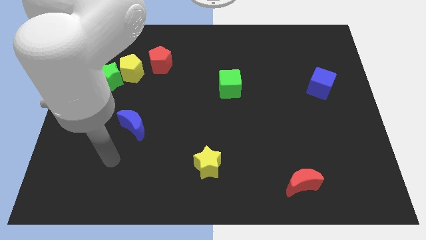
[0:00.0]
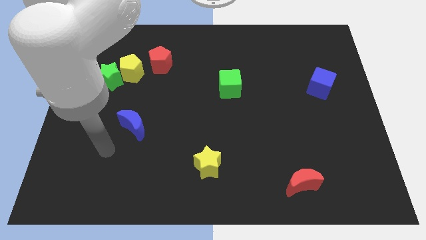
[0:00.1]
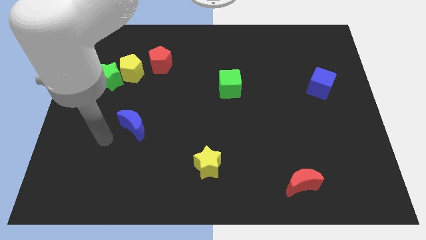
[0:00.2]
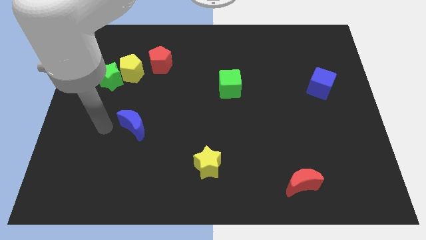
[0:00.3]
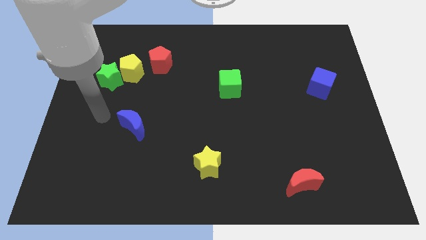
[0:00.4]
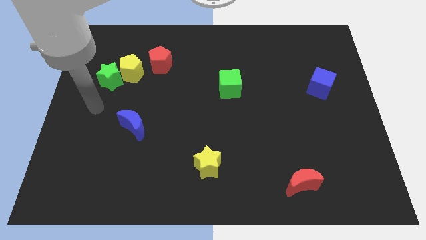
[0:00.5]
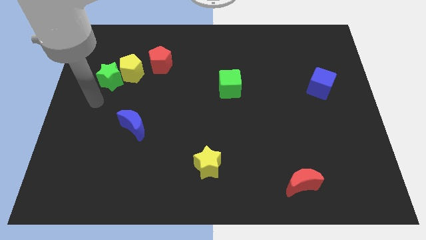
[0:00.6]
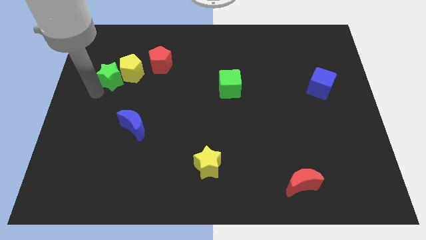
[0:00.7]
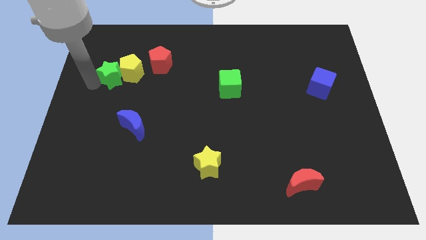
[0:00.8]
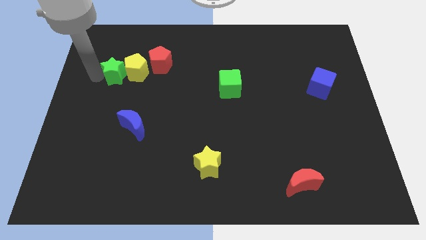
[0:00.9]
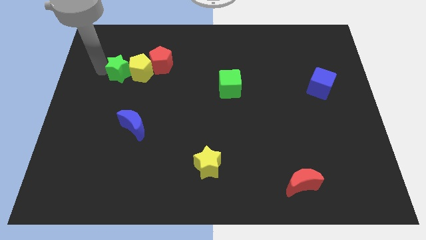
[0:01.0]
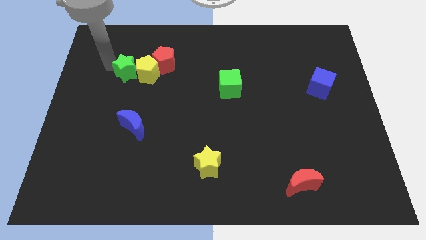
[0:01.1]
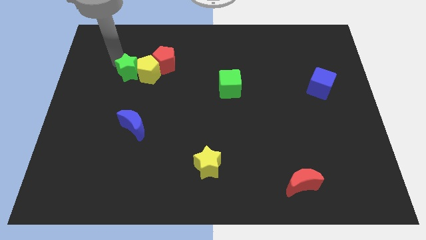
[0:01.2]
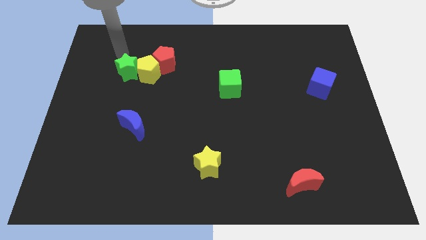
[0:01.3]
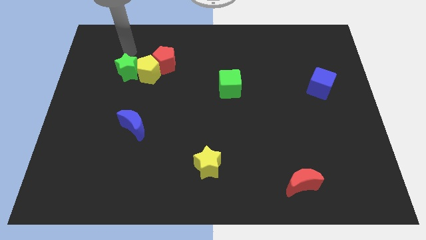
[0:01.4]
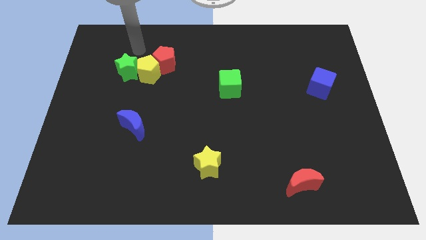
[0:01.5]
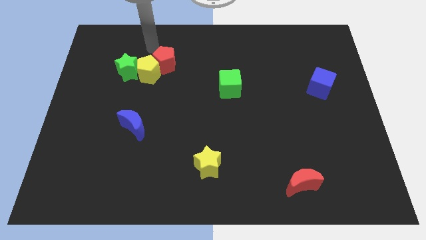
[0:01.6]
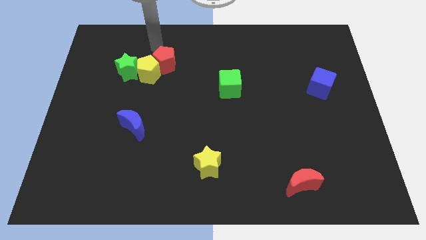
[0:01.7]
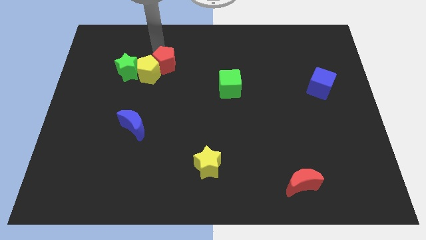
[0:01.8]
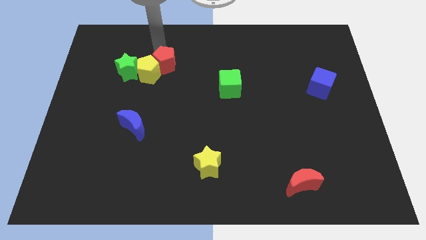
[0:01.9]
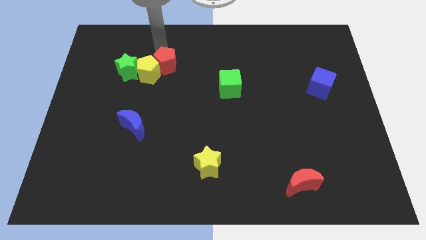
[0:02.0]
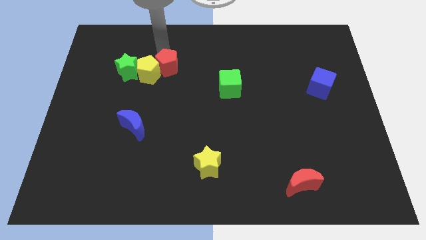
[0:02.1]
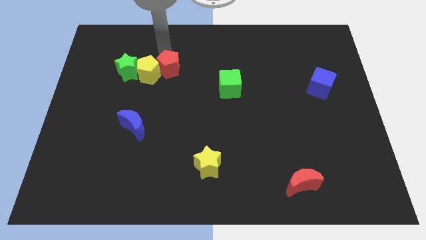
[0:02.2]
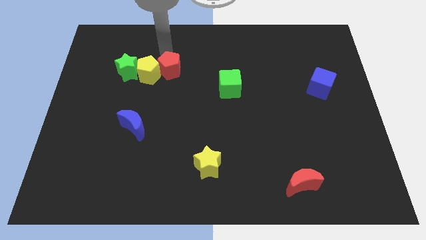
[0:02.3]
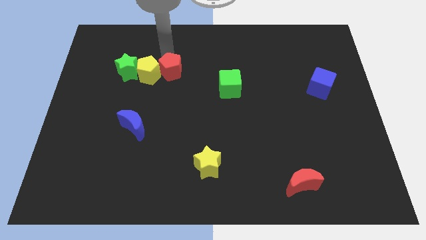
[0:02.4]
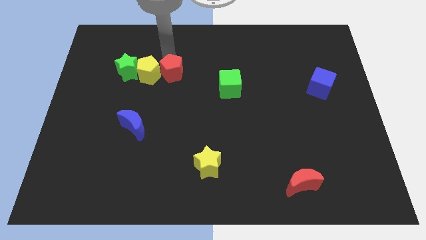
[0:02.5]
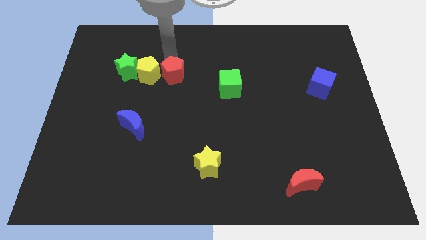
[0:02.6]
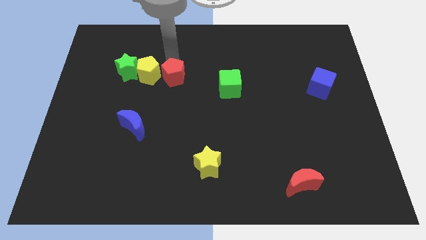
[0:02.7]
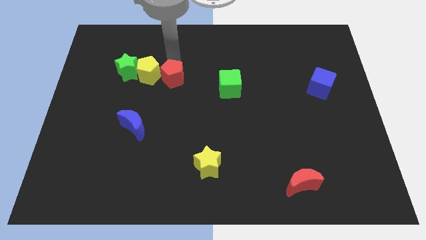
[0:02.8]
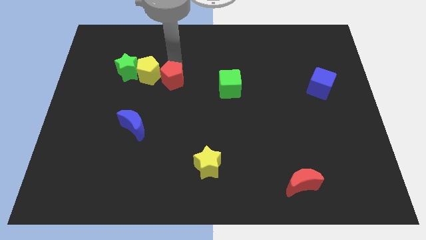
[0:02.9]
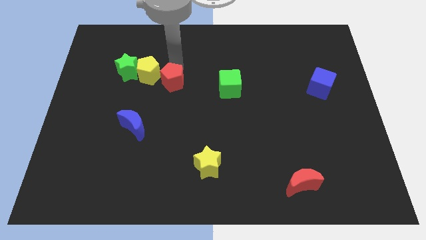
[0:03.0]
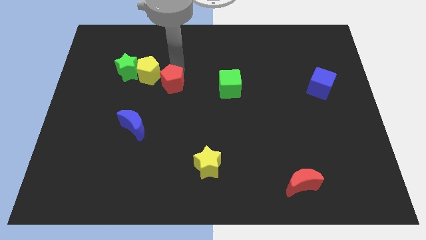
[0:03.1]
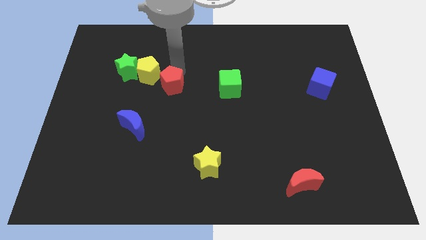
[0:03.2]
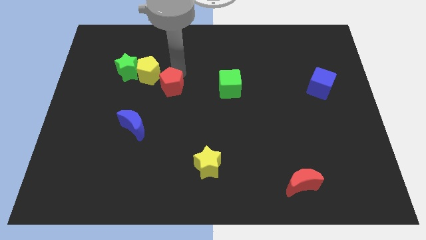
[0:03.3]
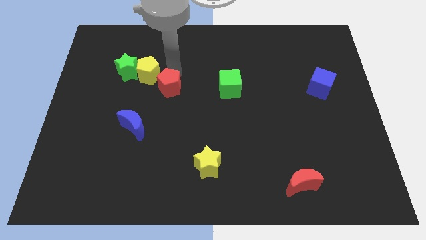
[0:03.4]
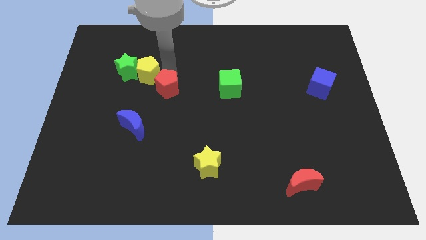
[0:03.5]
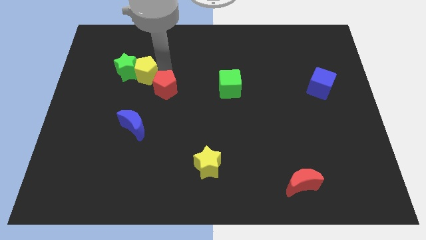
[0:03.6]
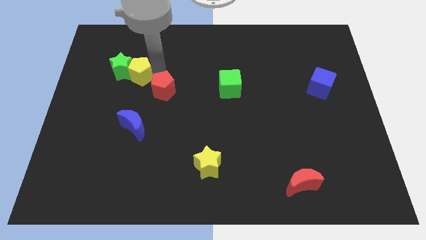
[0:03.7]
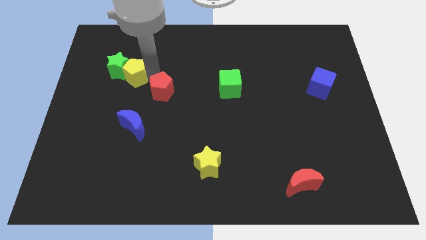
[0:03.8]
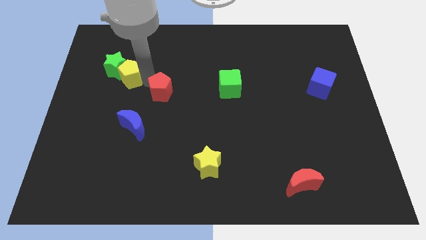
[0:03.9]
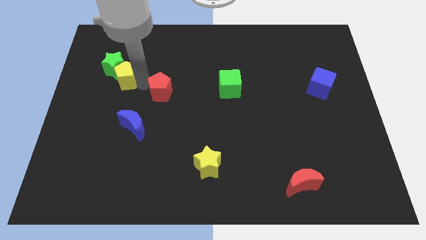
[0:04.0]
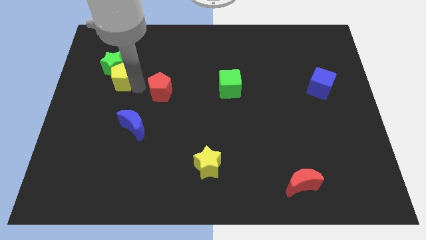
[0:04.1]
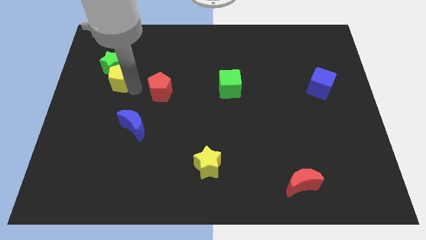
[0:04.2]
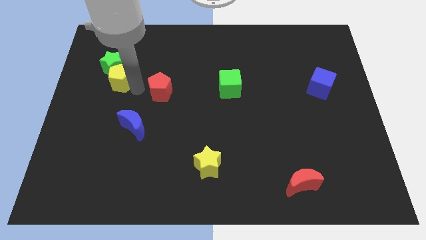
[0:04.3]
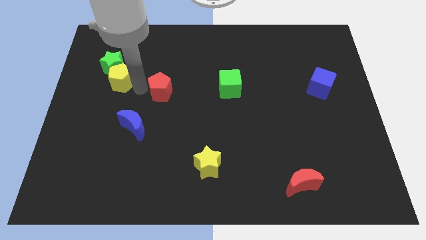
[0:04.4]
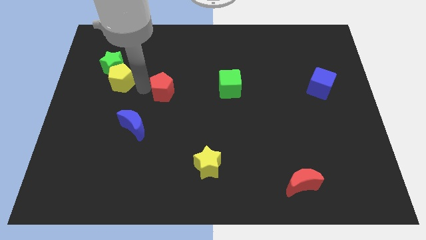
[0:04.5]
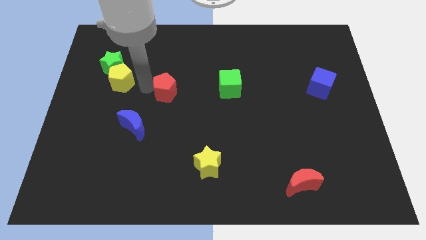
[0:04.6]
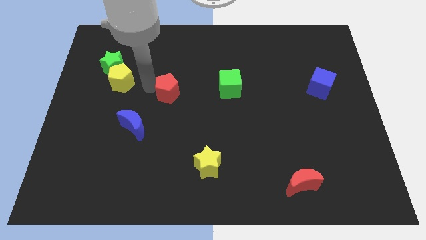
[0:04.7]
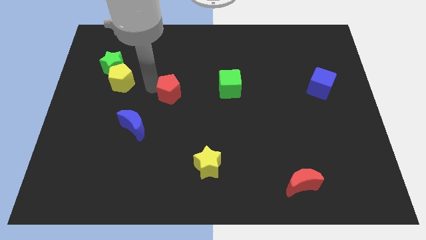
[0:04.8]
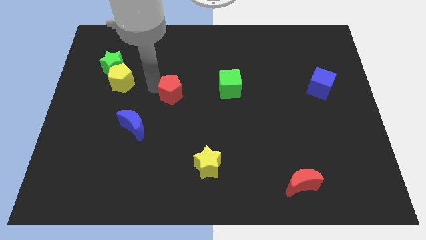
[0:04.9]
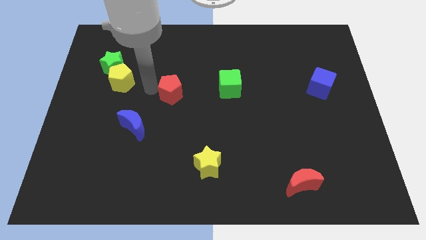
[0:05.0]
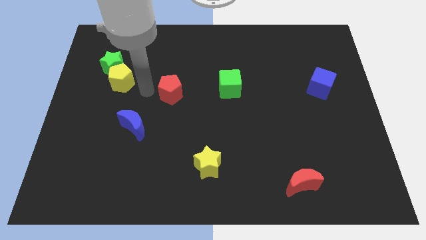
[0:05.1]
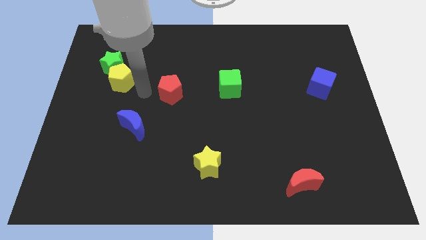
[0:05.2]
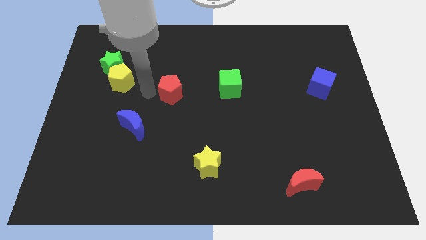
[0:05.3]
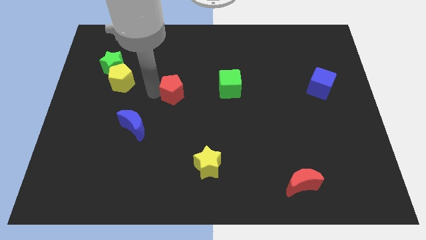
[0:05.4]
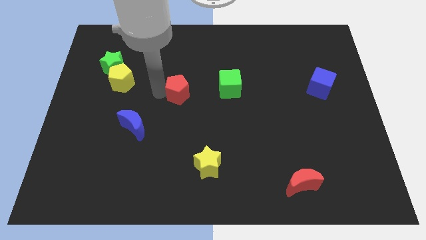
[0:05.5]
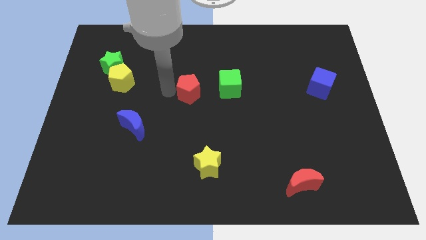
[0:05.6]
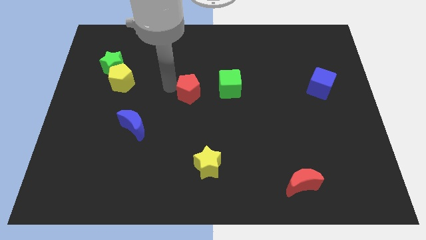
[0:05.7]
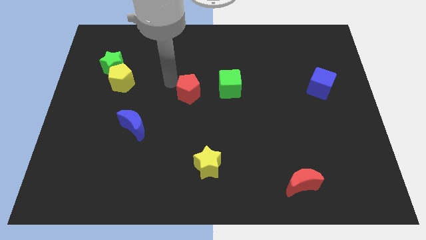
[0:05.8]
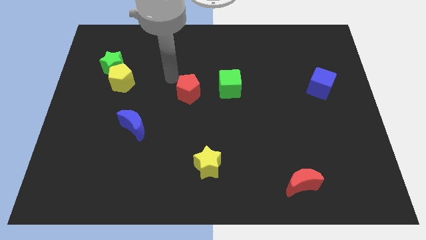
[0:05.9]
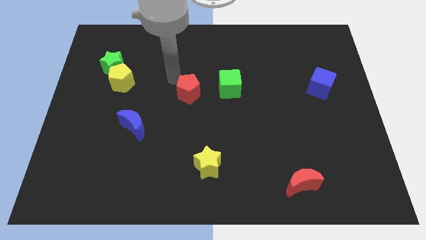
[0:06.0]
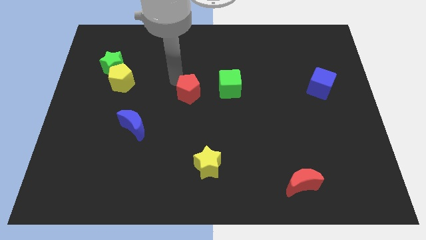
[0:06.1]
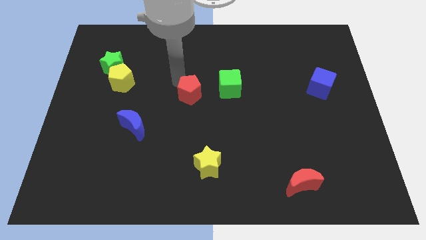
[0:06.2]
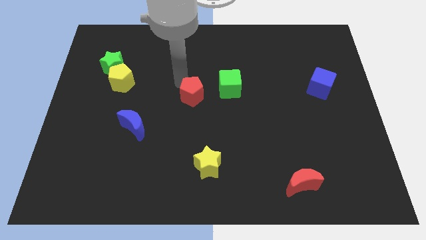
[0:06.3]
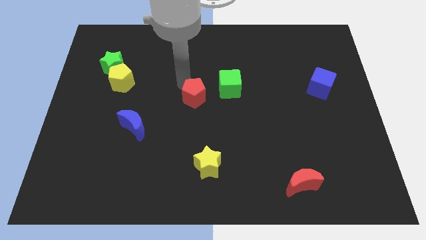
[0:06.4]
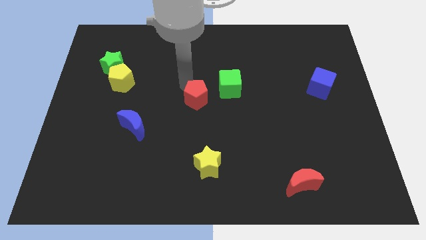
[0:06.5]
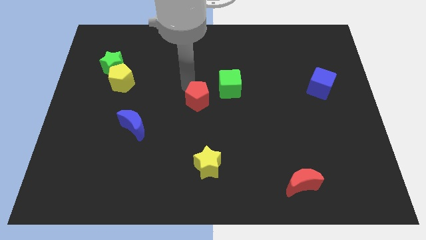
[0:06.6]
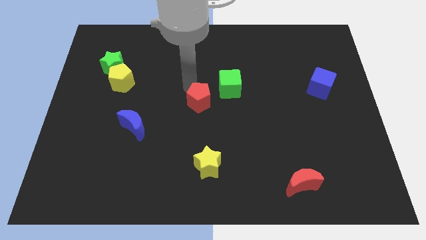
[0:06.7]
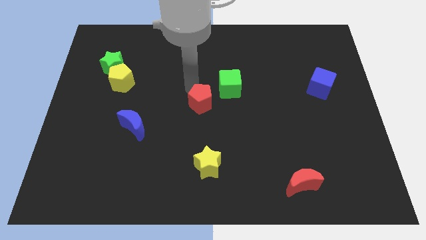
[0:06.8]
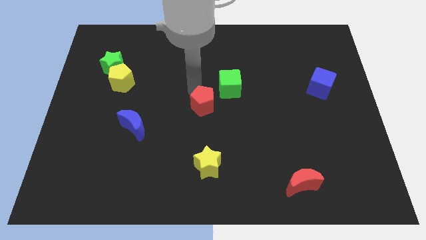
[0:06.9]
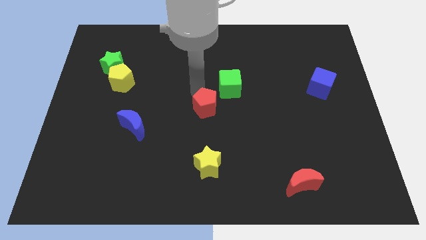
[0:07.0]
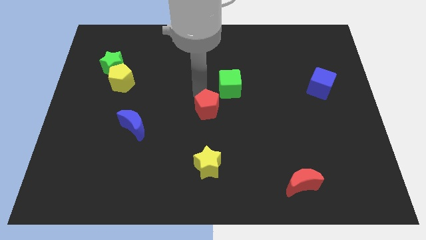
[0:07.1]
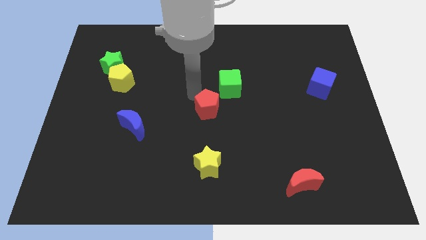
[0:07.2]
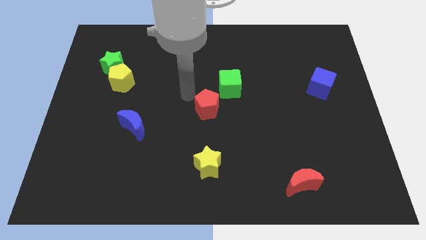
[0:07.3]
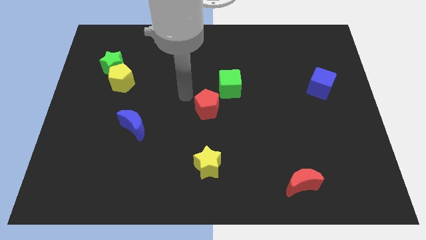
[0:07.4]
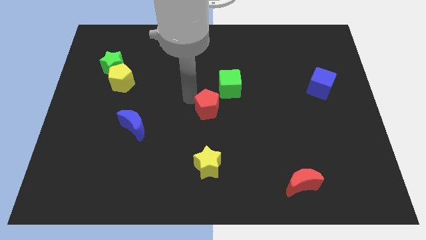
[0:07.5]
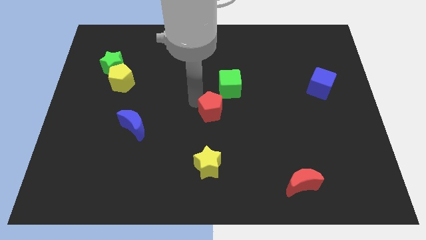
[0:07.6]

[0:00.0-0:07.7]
move the red pentagon to the bottom side of the green cube
